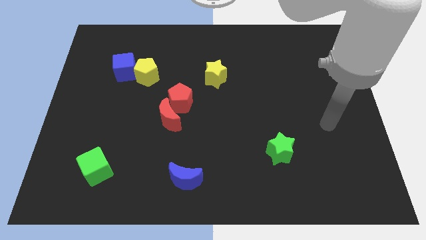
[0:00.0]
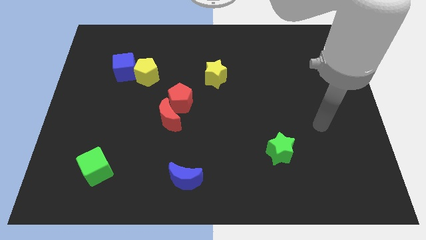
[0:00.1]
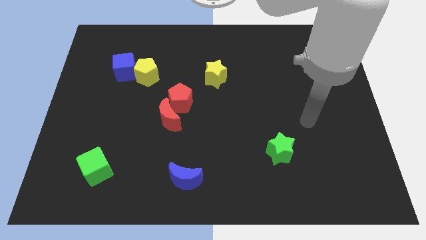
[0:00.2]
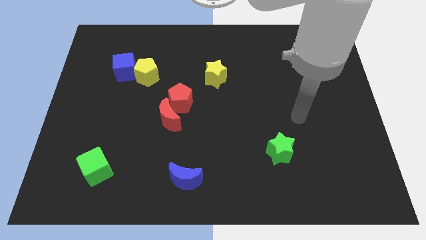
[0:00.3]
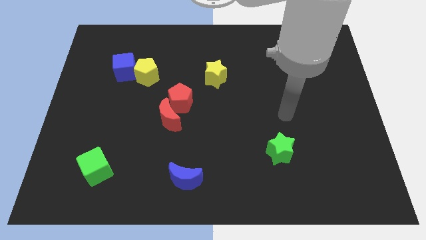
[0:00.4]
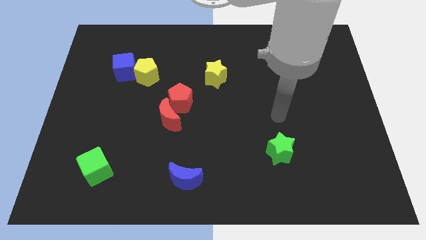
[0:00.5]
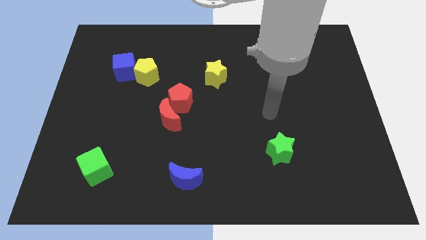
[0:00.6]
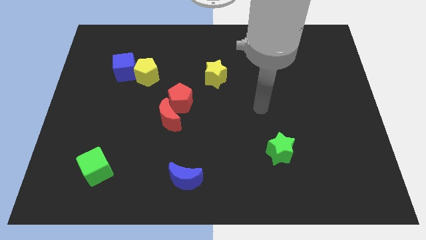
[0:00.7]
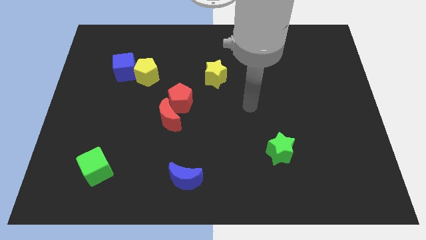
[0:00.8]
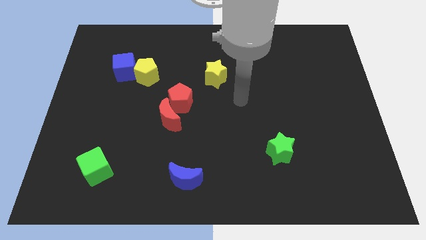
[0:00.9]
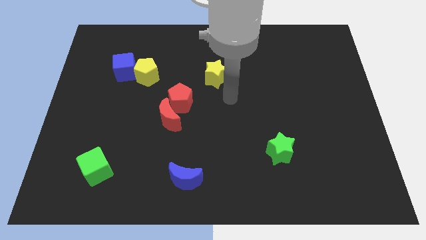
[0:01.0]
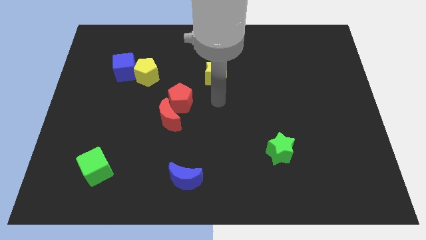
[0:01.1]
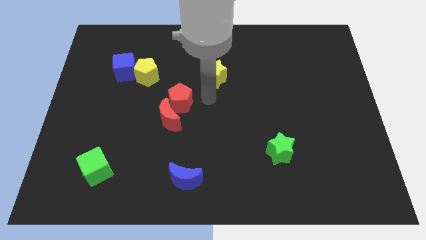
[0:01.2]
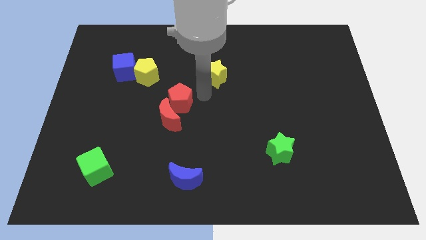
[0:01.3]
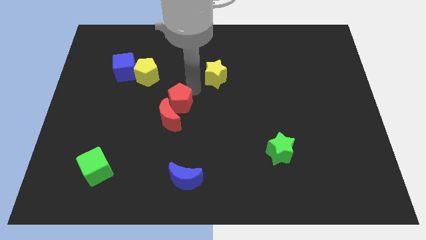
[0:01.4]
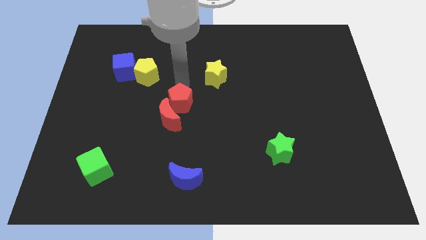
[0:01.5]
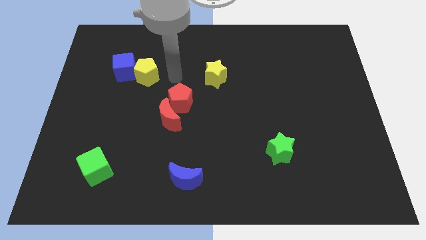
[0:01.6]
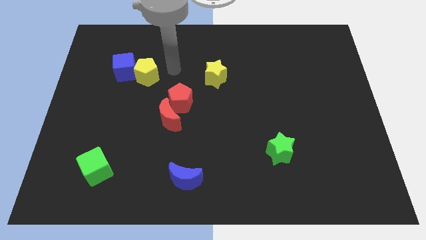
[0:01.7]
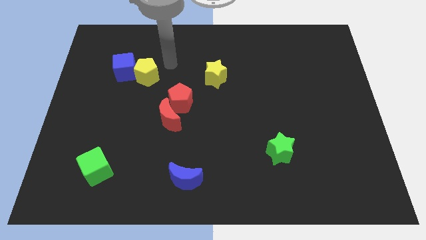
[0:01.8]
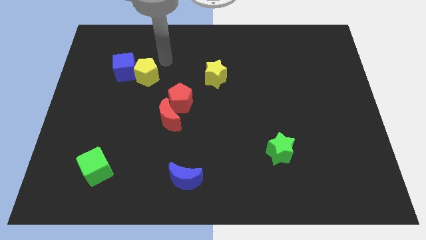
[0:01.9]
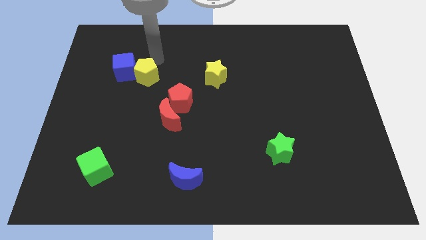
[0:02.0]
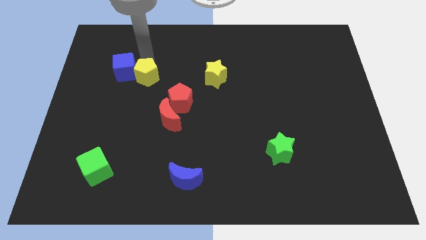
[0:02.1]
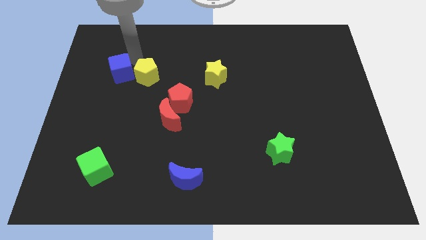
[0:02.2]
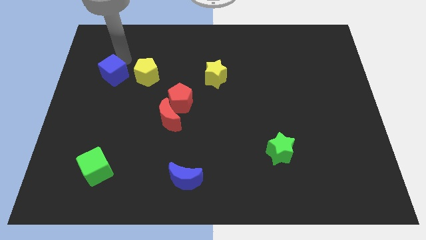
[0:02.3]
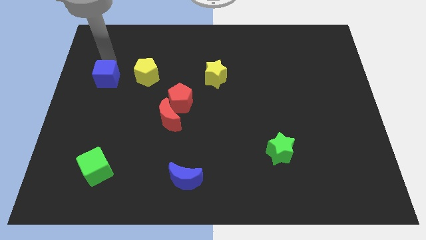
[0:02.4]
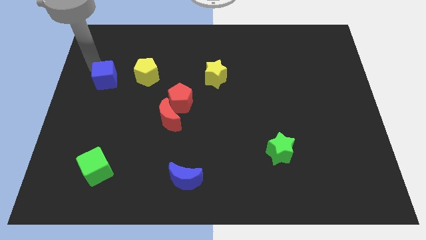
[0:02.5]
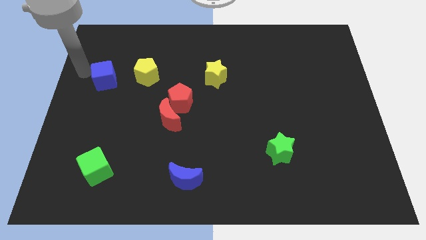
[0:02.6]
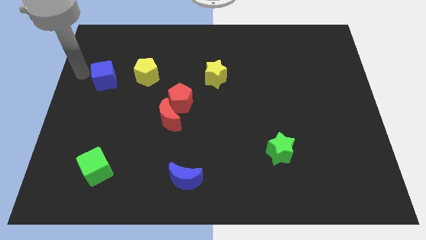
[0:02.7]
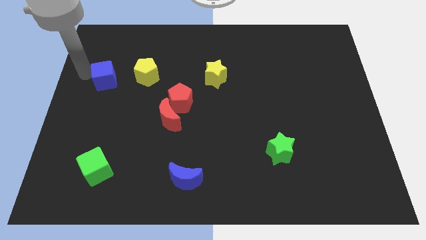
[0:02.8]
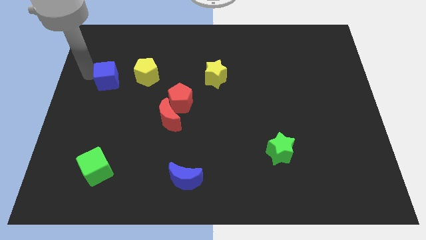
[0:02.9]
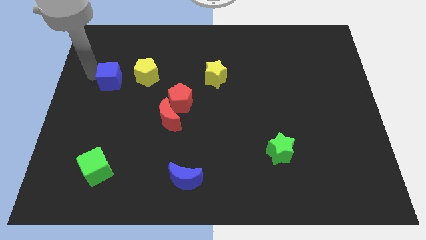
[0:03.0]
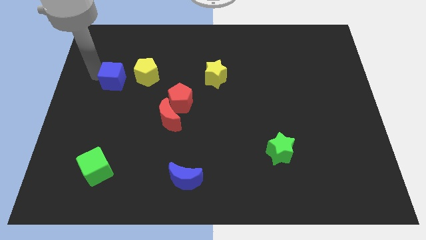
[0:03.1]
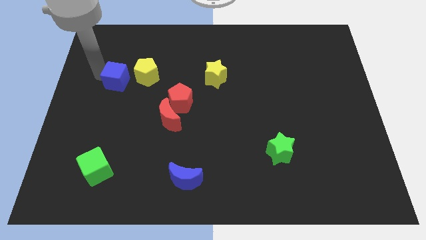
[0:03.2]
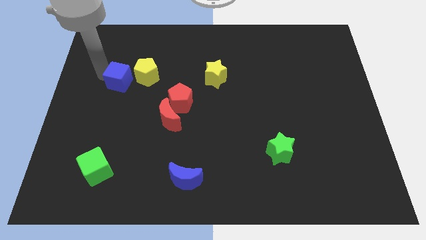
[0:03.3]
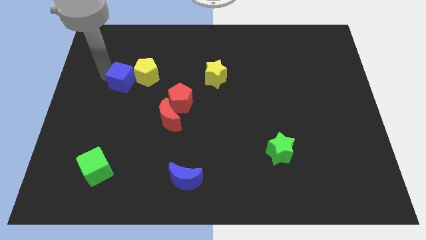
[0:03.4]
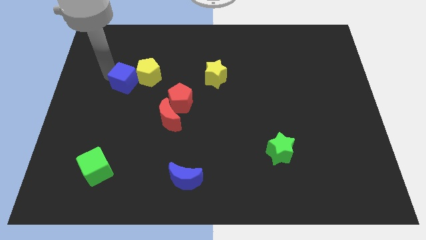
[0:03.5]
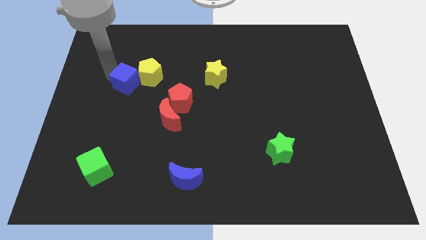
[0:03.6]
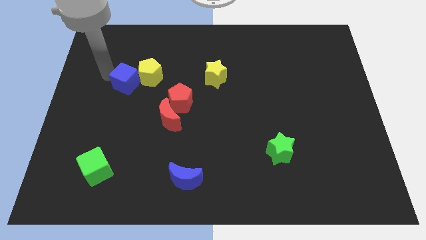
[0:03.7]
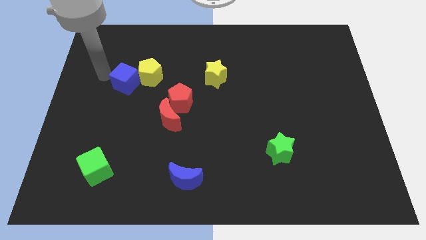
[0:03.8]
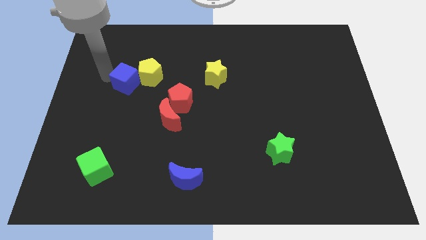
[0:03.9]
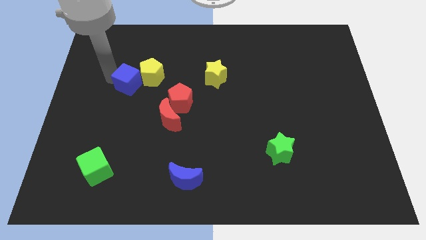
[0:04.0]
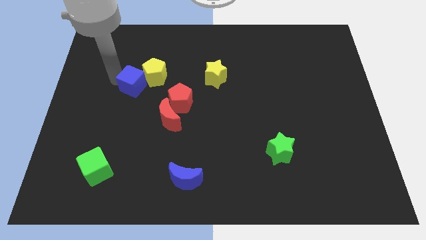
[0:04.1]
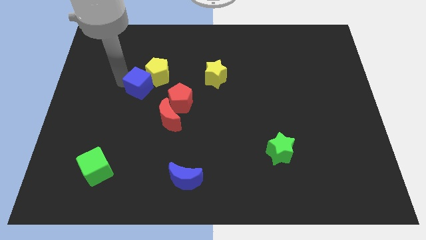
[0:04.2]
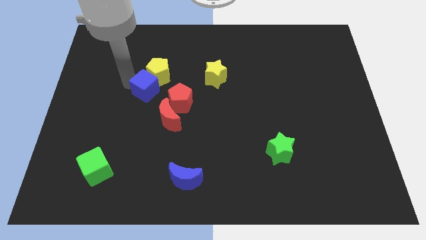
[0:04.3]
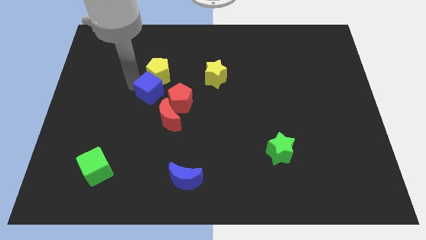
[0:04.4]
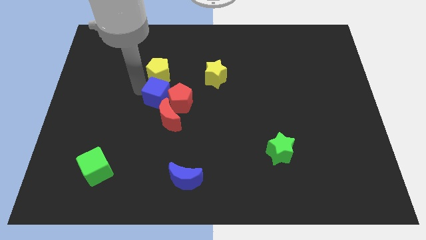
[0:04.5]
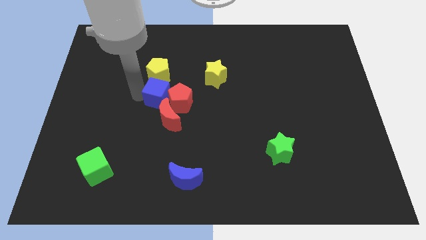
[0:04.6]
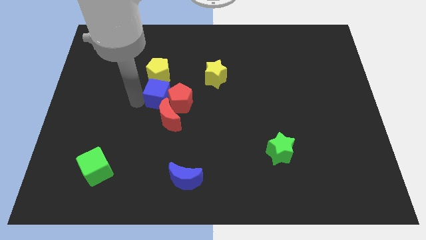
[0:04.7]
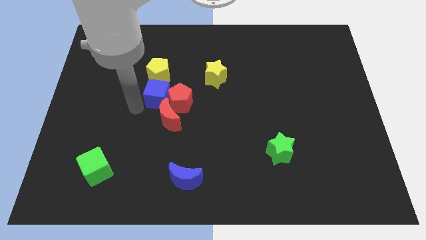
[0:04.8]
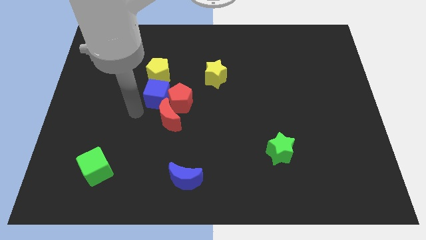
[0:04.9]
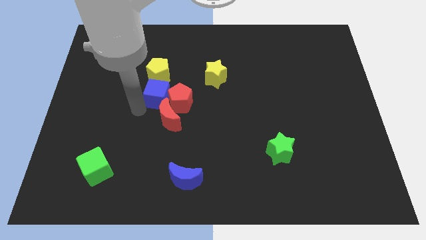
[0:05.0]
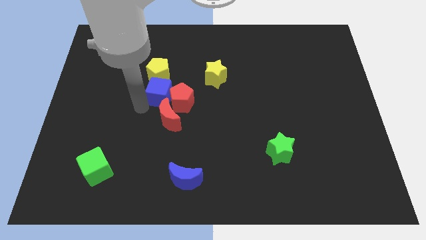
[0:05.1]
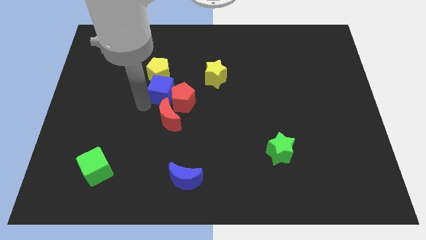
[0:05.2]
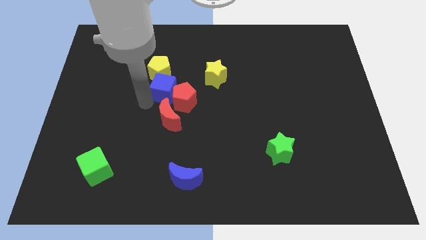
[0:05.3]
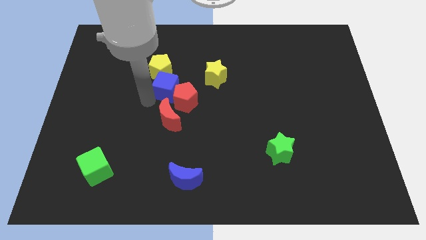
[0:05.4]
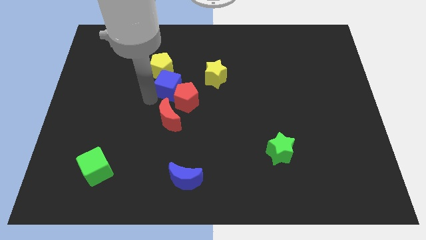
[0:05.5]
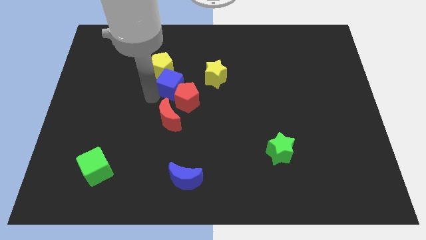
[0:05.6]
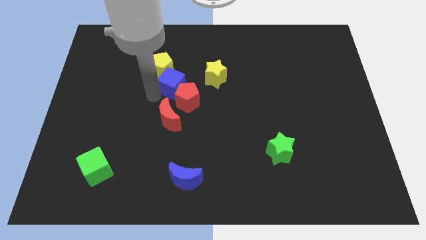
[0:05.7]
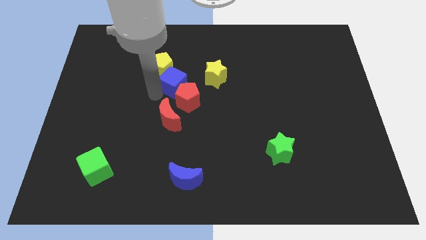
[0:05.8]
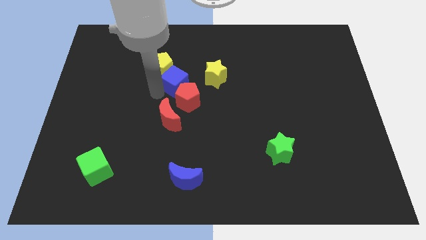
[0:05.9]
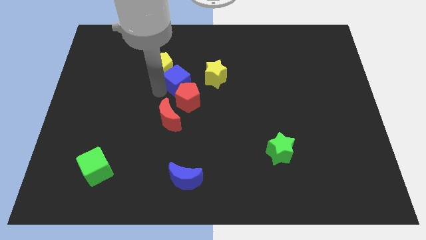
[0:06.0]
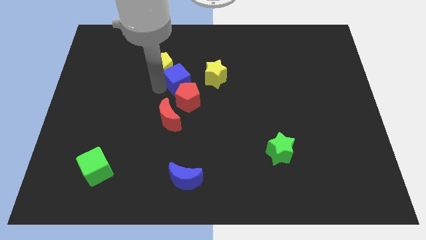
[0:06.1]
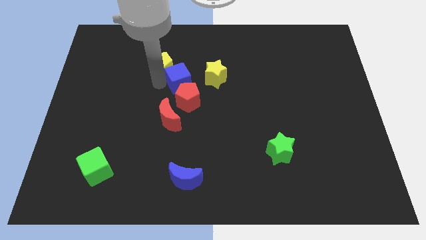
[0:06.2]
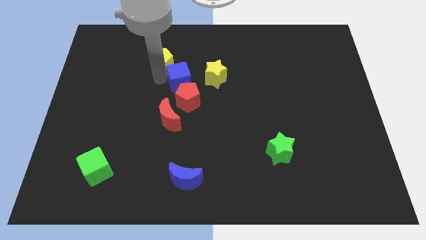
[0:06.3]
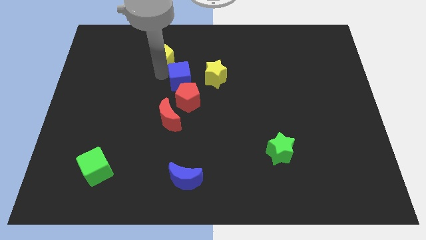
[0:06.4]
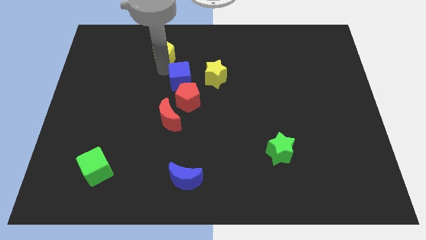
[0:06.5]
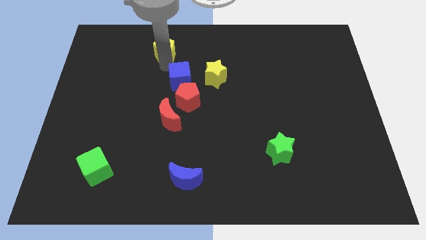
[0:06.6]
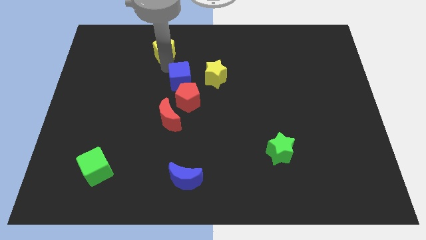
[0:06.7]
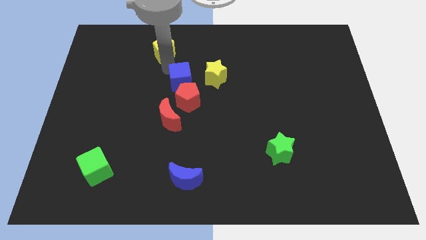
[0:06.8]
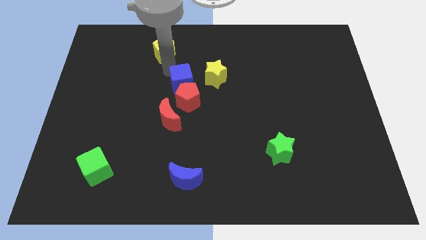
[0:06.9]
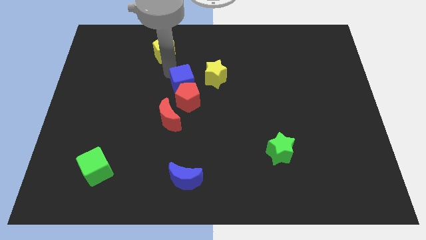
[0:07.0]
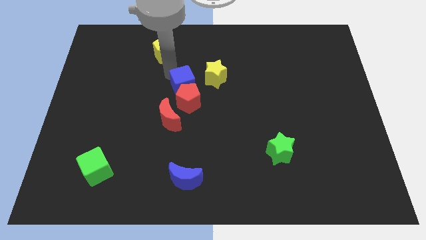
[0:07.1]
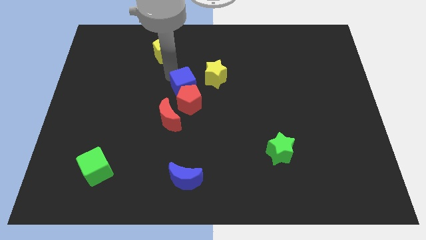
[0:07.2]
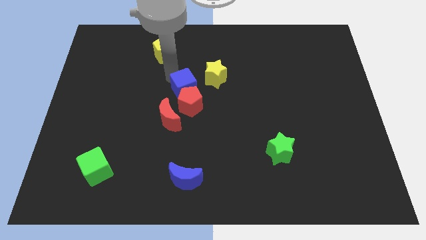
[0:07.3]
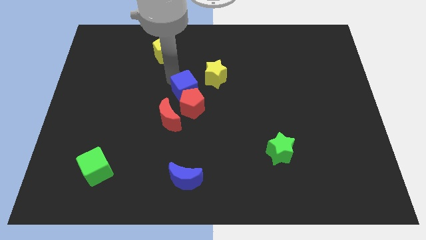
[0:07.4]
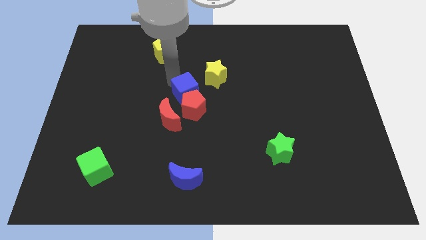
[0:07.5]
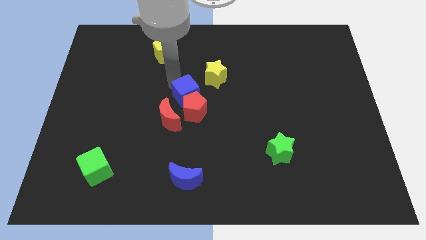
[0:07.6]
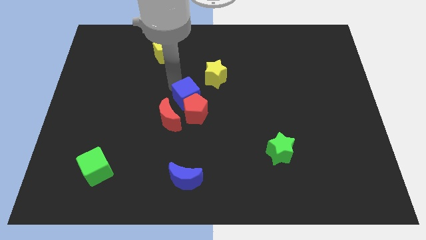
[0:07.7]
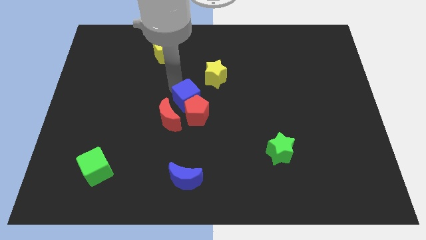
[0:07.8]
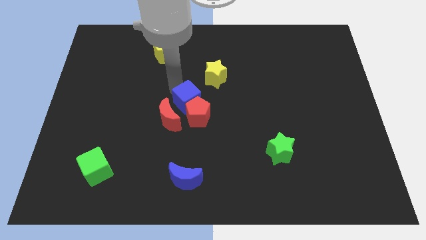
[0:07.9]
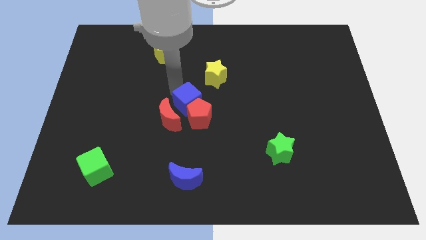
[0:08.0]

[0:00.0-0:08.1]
push the blue cube to the right of the red moon
